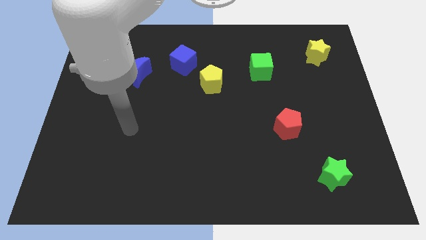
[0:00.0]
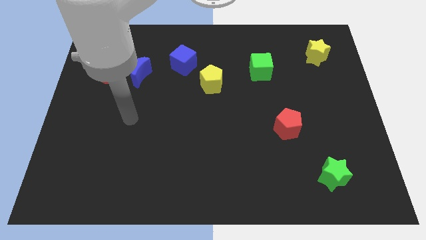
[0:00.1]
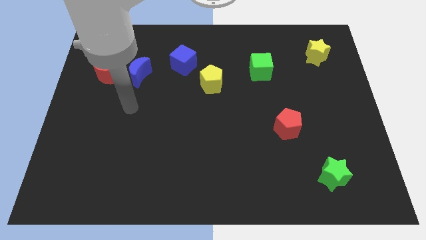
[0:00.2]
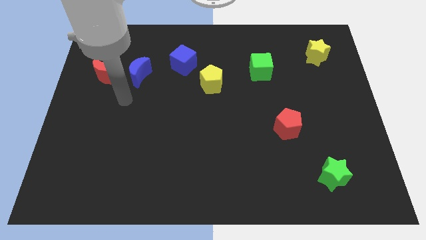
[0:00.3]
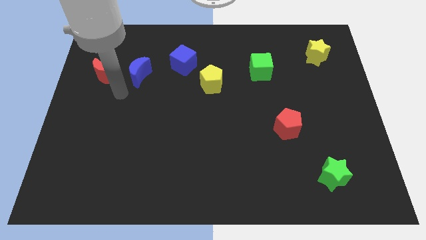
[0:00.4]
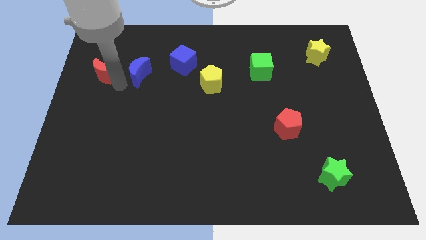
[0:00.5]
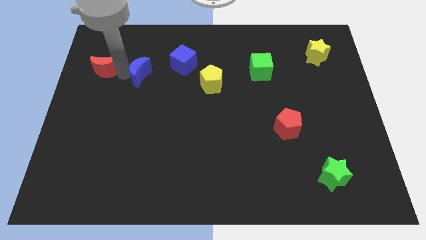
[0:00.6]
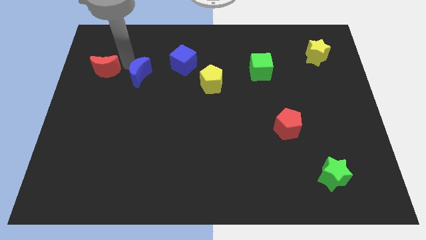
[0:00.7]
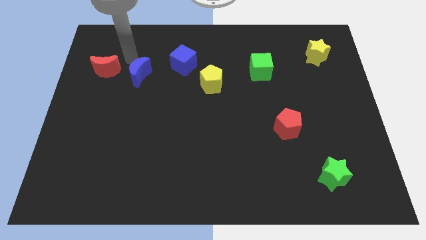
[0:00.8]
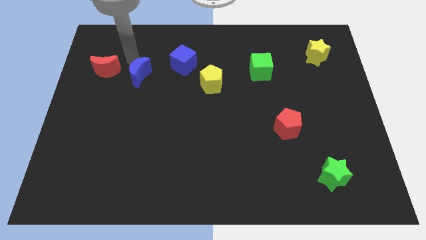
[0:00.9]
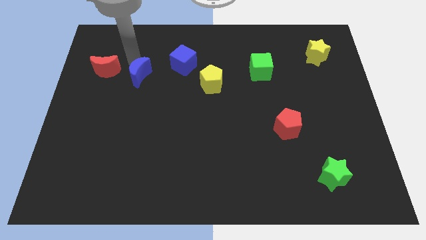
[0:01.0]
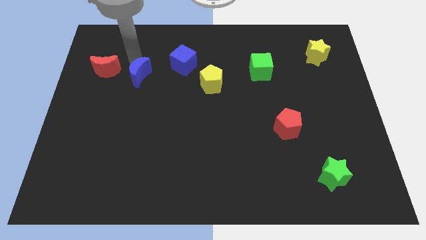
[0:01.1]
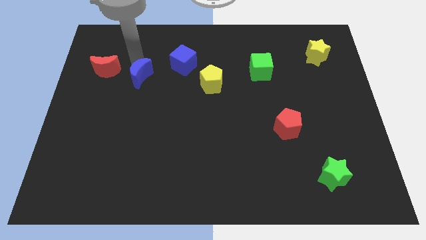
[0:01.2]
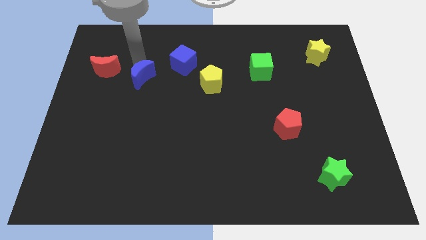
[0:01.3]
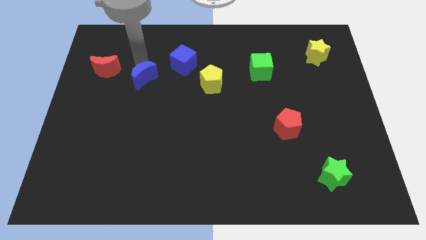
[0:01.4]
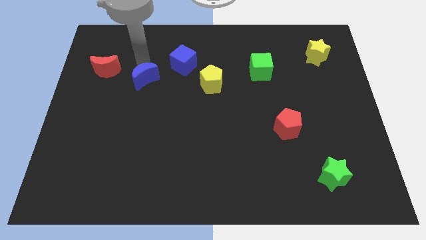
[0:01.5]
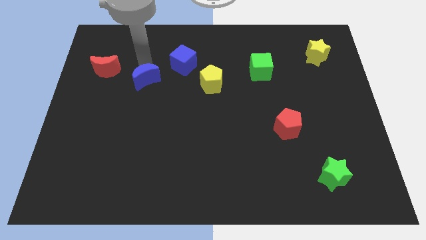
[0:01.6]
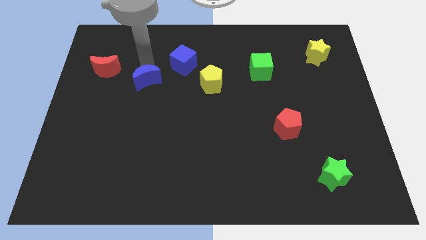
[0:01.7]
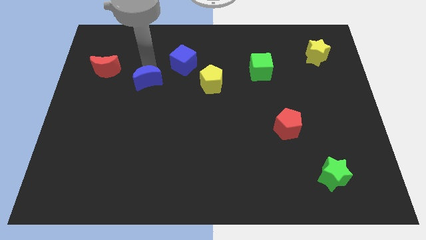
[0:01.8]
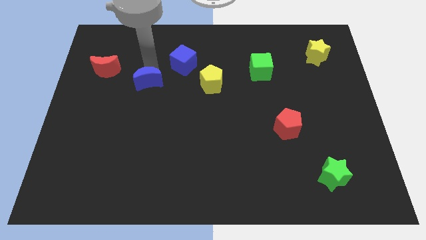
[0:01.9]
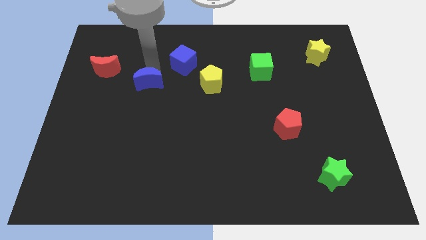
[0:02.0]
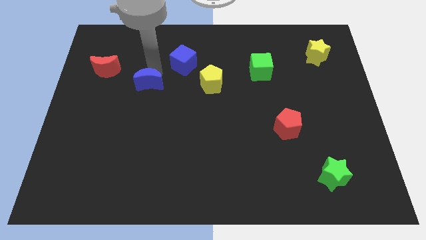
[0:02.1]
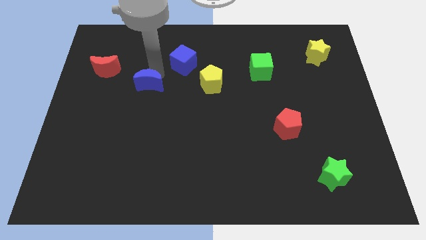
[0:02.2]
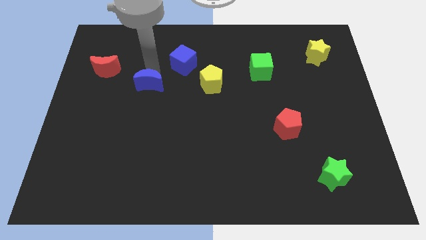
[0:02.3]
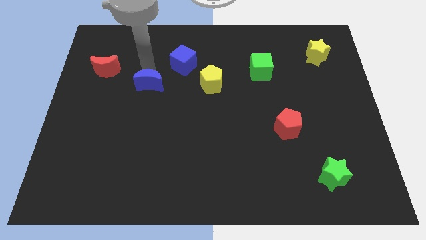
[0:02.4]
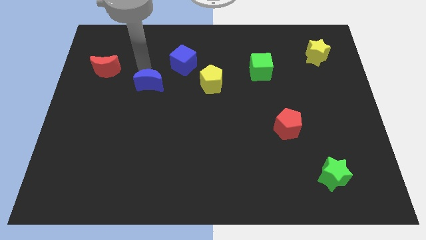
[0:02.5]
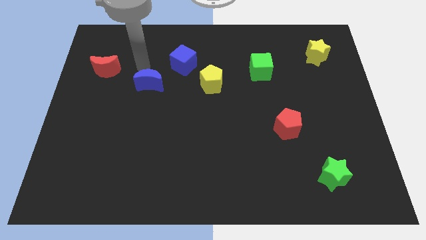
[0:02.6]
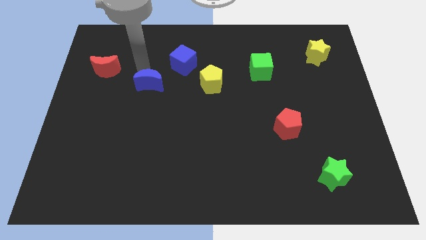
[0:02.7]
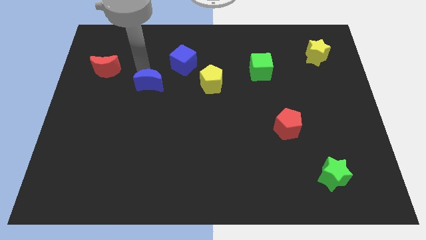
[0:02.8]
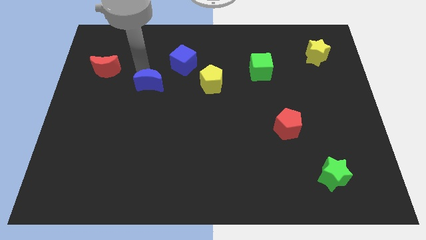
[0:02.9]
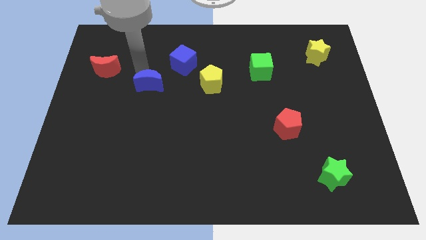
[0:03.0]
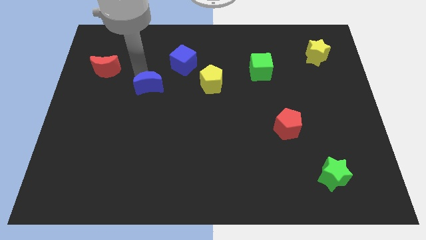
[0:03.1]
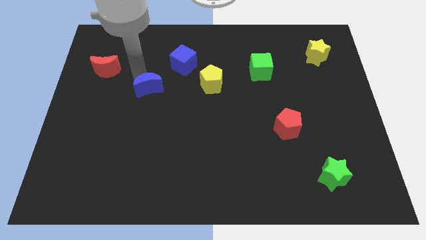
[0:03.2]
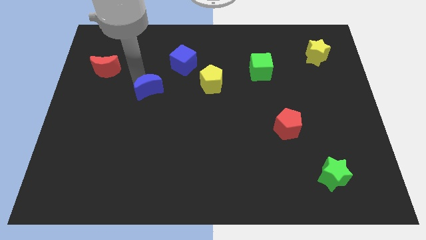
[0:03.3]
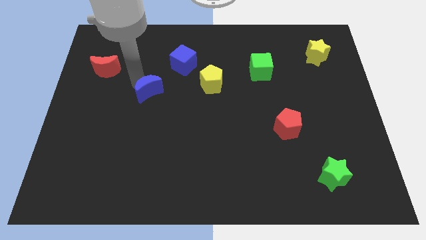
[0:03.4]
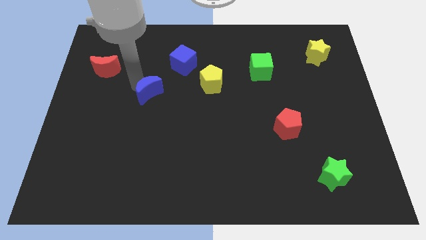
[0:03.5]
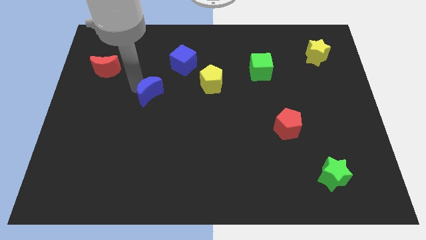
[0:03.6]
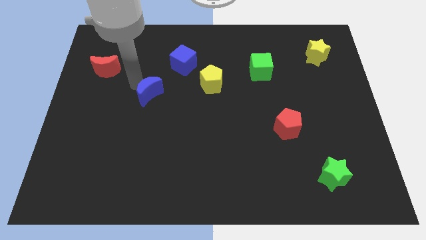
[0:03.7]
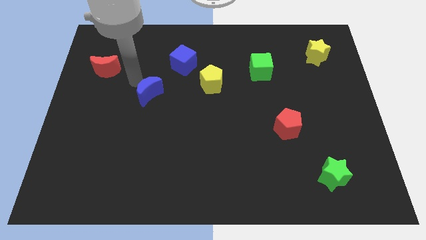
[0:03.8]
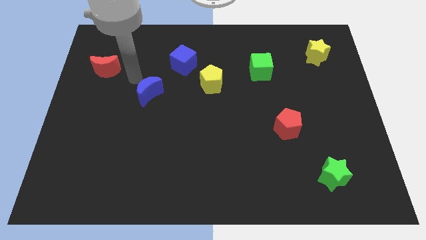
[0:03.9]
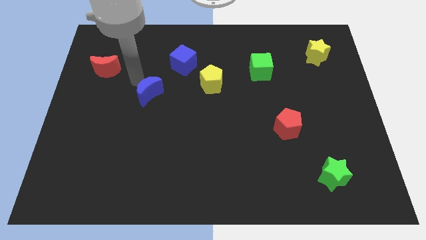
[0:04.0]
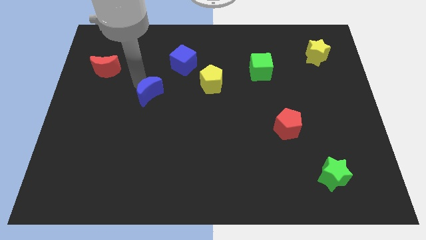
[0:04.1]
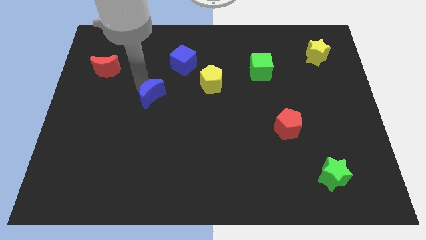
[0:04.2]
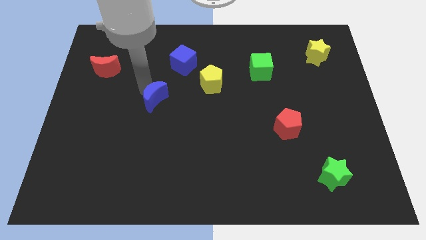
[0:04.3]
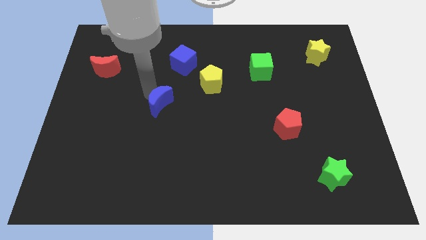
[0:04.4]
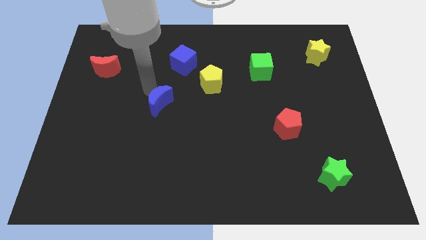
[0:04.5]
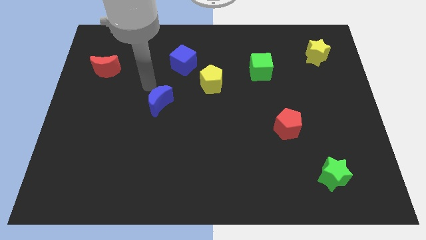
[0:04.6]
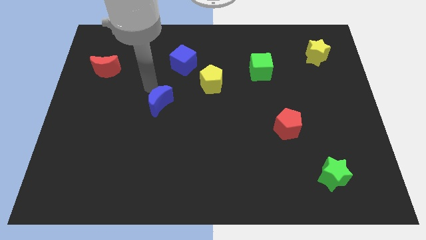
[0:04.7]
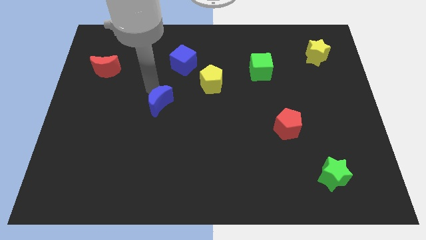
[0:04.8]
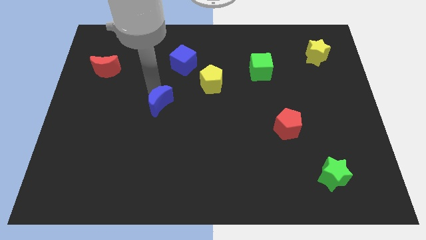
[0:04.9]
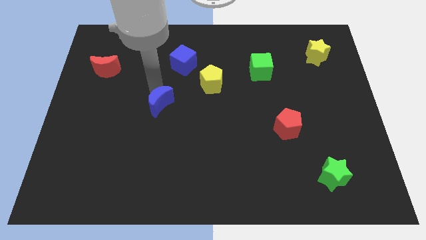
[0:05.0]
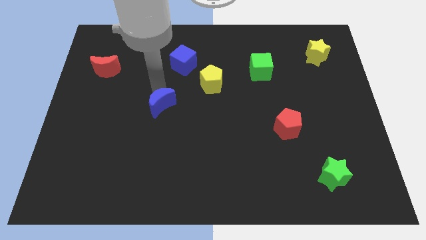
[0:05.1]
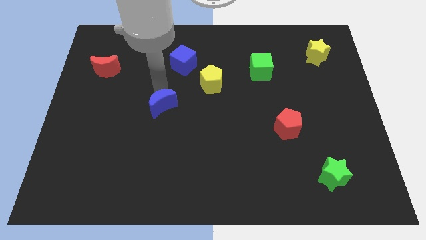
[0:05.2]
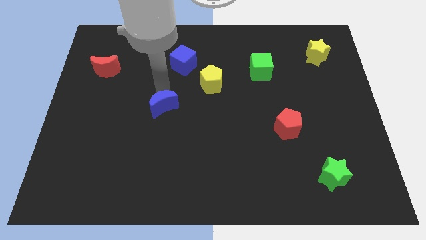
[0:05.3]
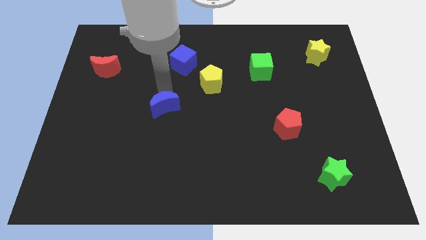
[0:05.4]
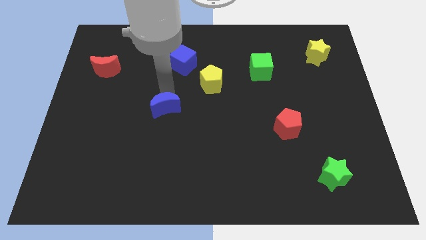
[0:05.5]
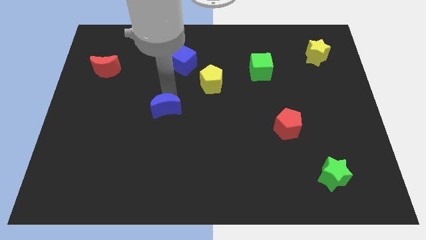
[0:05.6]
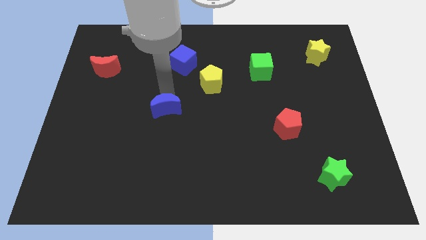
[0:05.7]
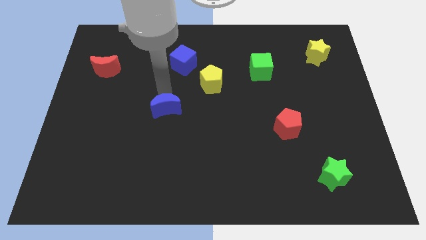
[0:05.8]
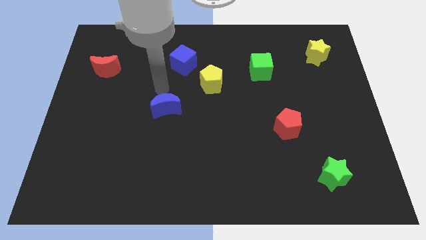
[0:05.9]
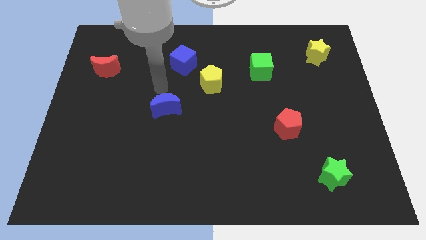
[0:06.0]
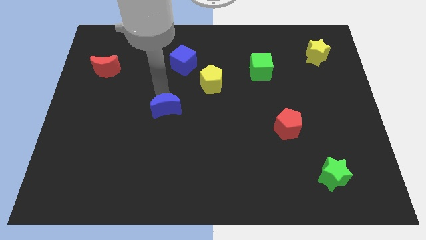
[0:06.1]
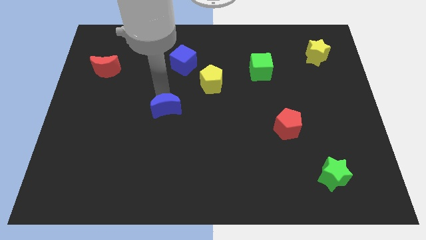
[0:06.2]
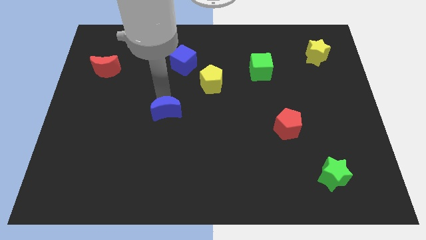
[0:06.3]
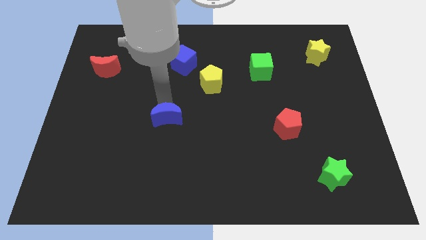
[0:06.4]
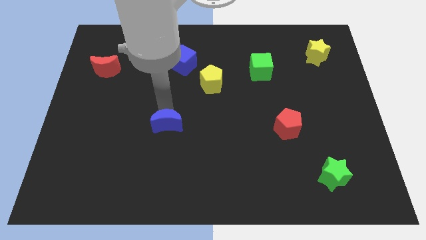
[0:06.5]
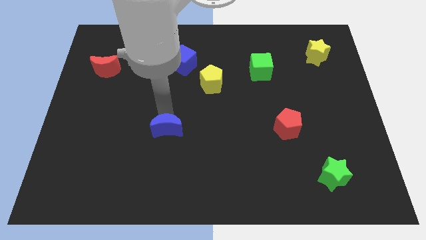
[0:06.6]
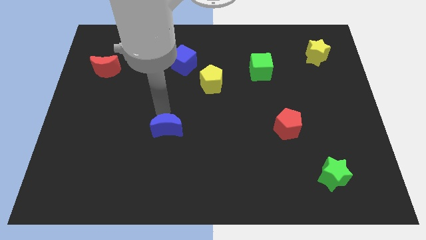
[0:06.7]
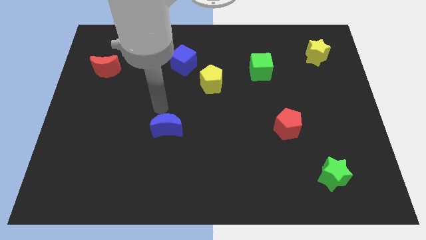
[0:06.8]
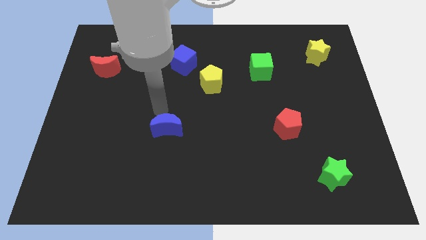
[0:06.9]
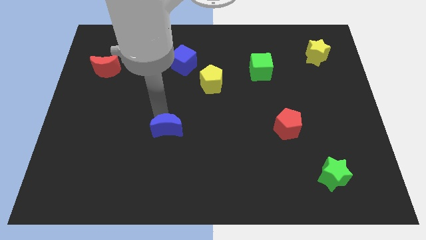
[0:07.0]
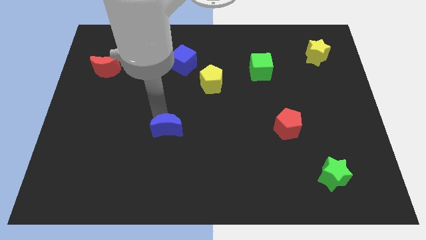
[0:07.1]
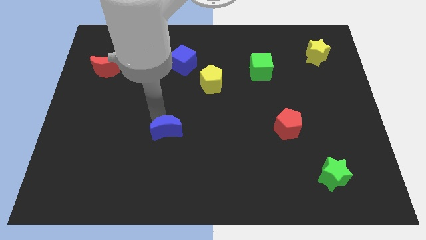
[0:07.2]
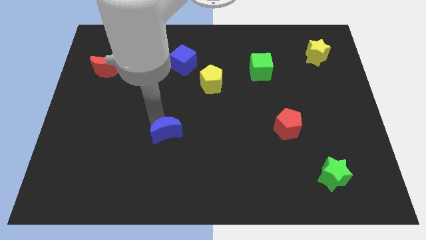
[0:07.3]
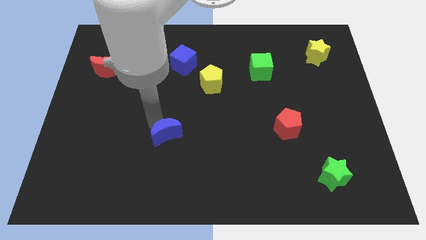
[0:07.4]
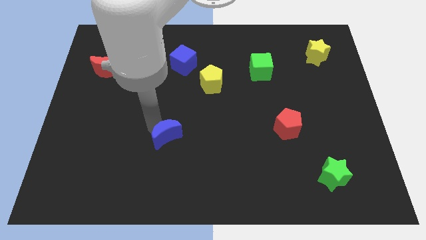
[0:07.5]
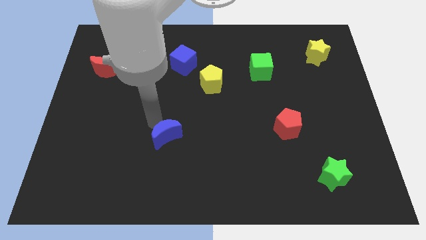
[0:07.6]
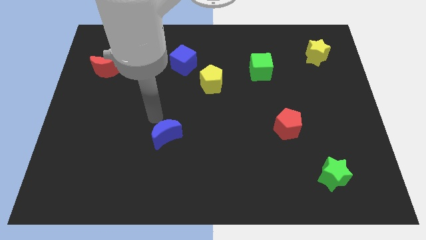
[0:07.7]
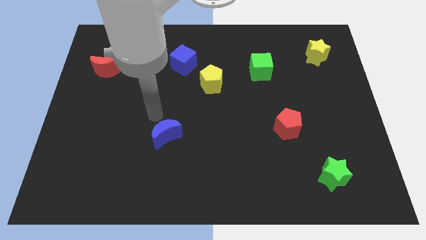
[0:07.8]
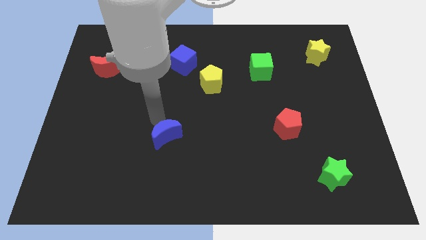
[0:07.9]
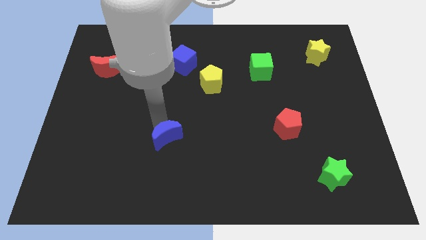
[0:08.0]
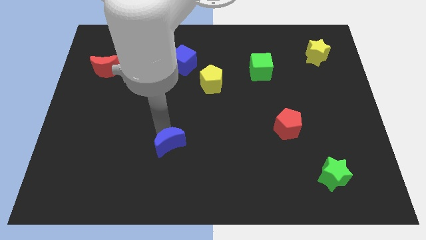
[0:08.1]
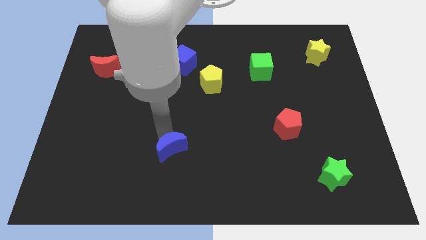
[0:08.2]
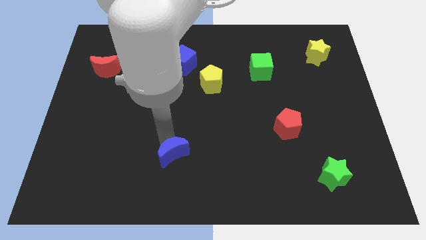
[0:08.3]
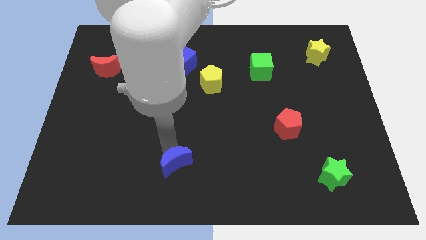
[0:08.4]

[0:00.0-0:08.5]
push the blue moon to the bottom
